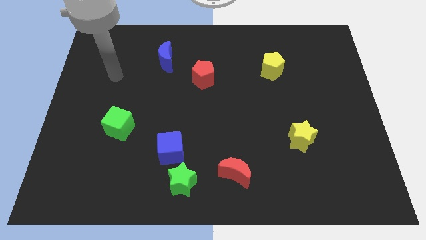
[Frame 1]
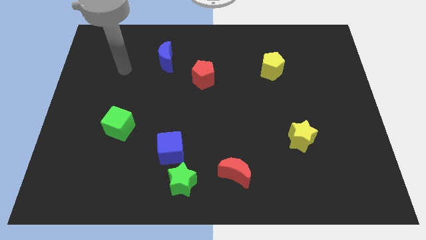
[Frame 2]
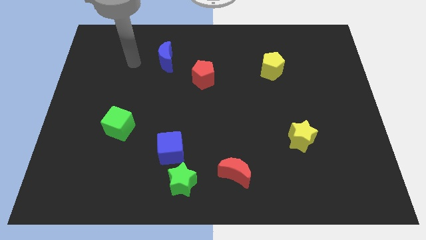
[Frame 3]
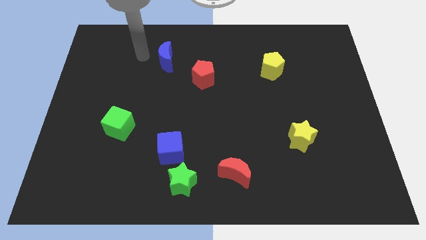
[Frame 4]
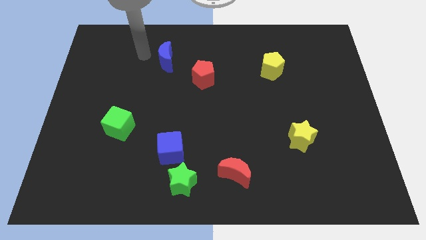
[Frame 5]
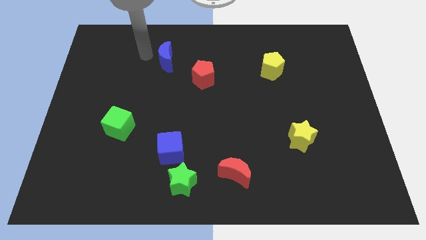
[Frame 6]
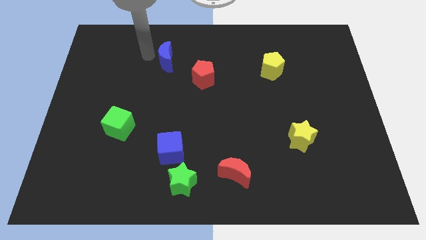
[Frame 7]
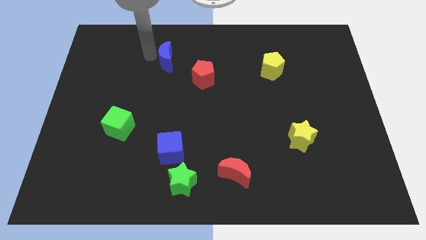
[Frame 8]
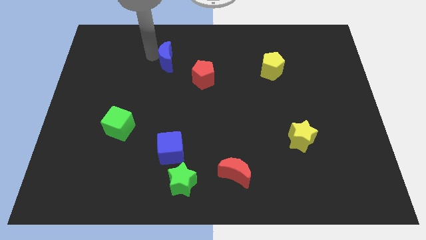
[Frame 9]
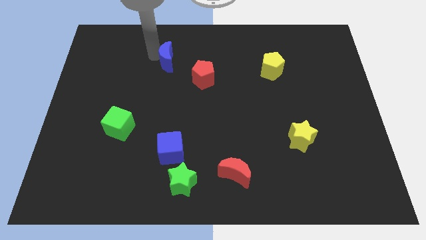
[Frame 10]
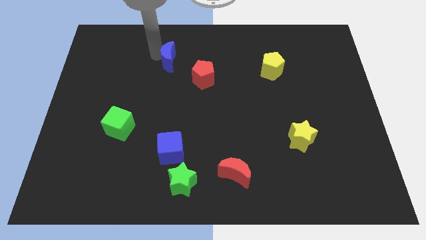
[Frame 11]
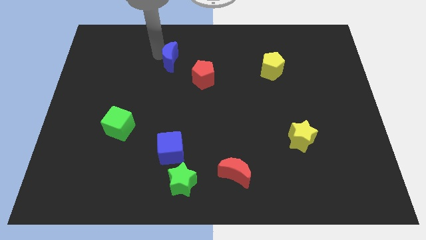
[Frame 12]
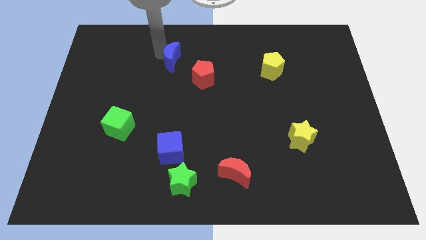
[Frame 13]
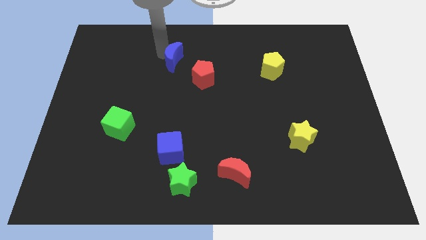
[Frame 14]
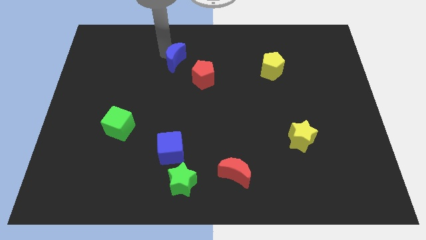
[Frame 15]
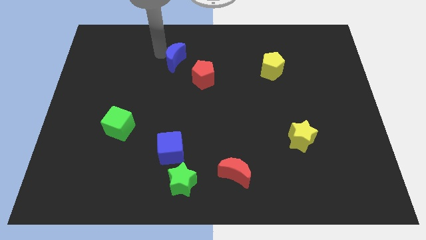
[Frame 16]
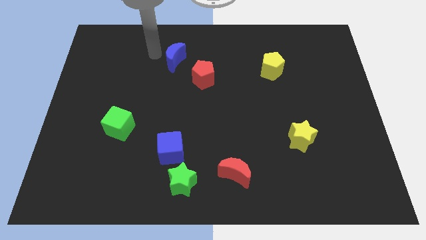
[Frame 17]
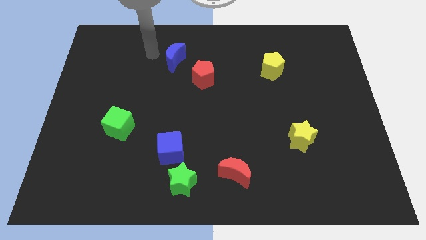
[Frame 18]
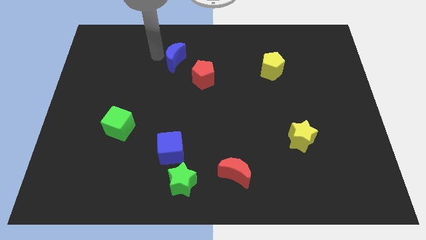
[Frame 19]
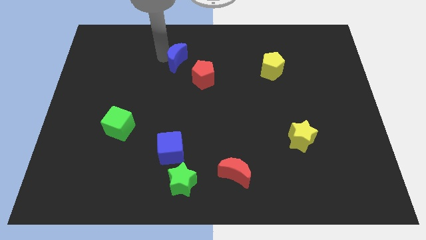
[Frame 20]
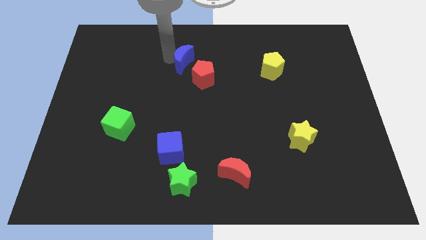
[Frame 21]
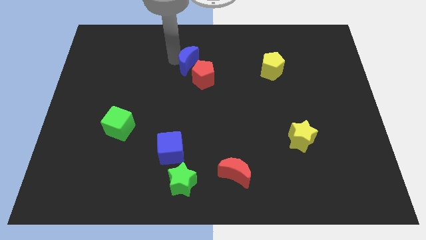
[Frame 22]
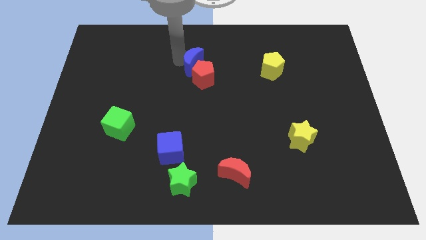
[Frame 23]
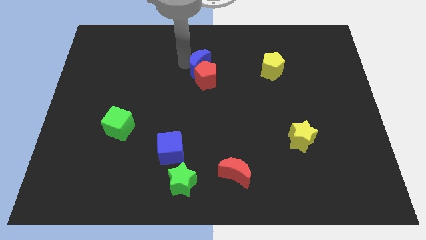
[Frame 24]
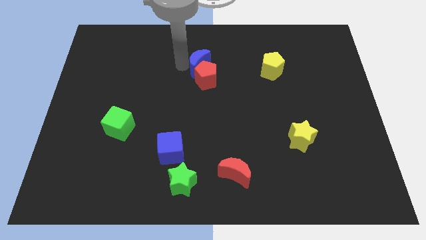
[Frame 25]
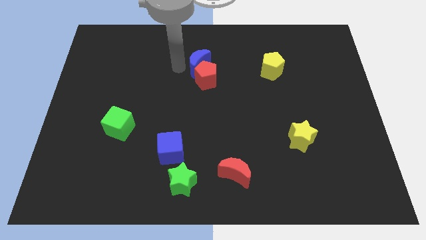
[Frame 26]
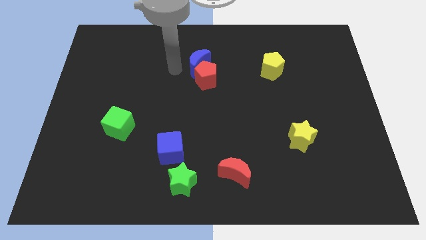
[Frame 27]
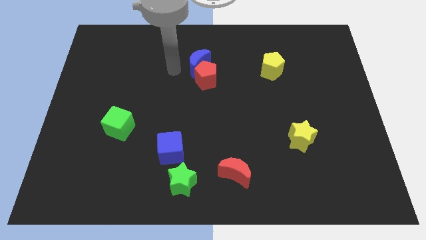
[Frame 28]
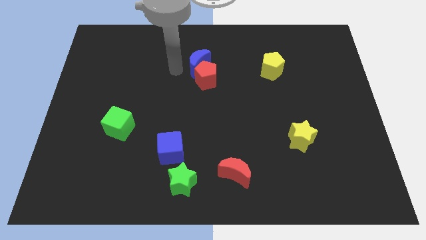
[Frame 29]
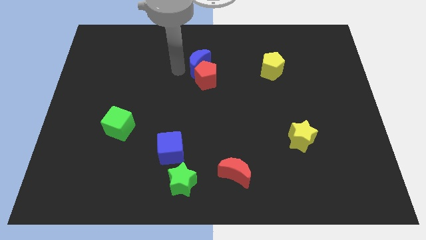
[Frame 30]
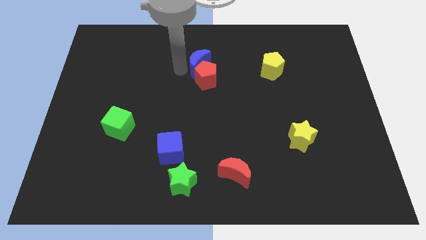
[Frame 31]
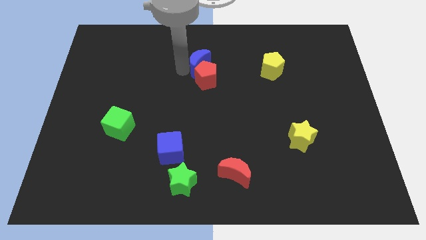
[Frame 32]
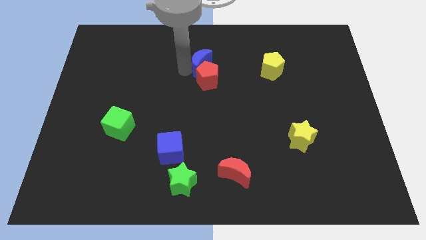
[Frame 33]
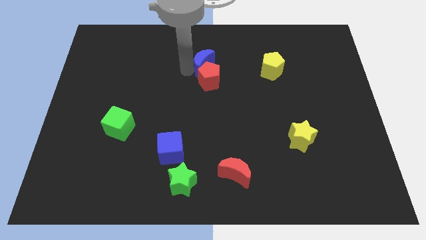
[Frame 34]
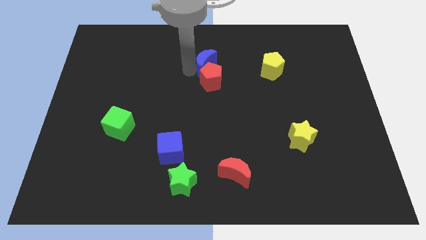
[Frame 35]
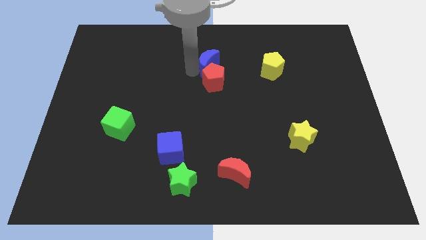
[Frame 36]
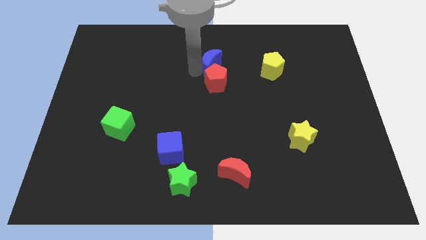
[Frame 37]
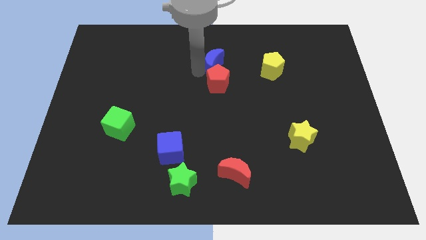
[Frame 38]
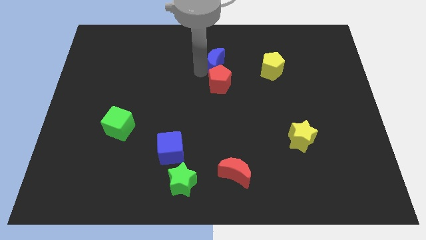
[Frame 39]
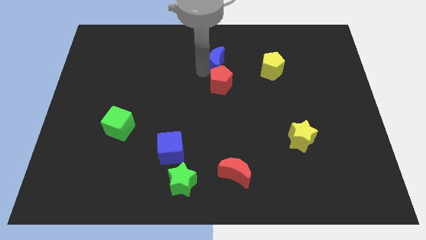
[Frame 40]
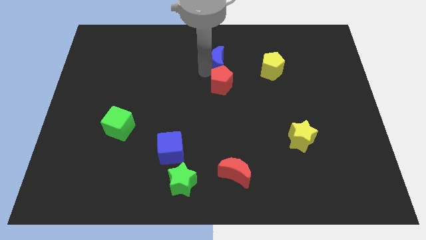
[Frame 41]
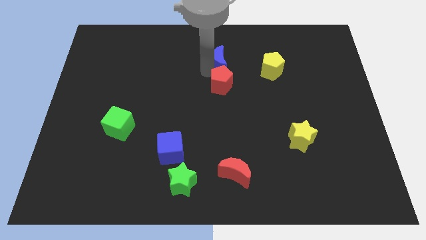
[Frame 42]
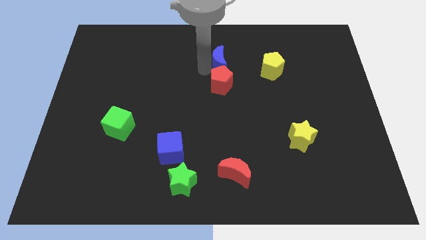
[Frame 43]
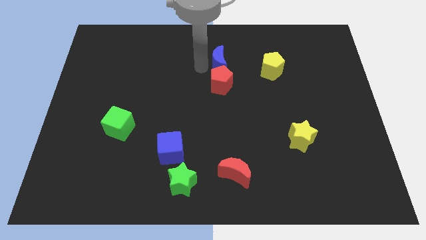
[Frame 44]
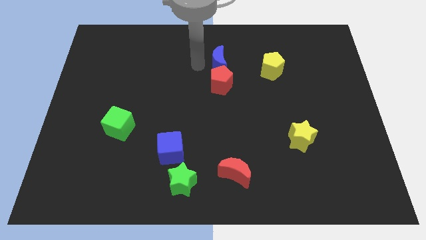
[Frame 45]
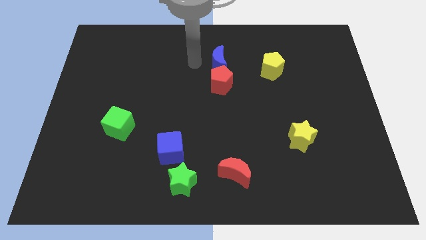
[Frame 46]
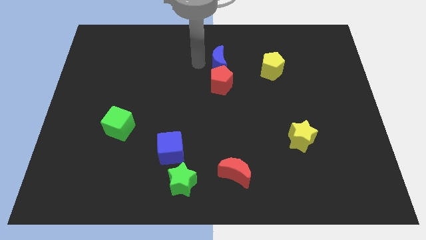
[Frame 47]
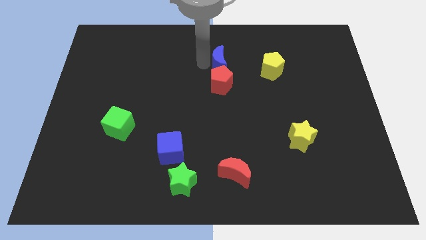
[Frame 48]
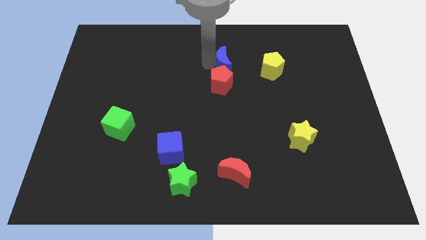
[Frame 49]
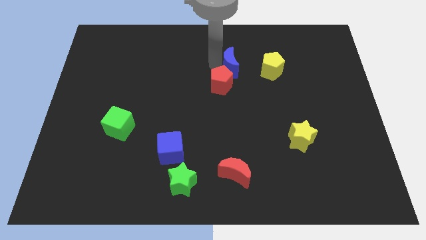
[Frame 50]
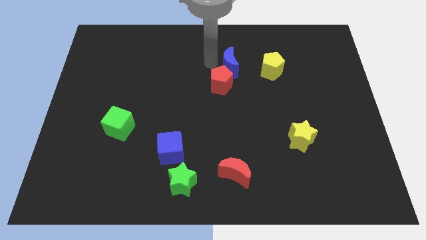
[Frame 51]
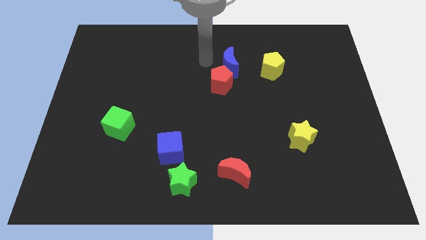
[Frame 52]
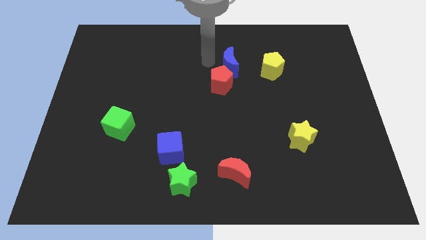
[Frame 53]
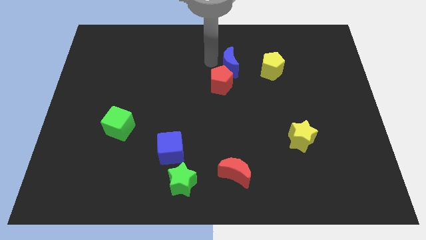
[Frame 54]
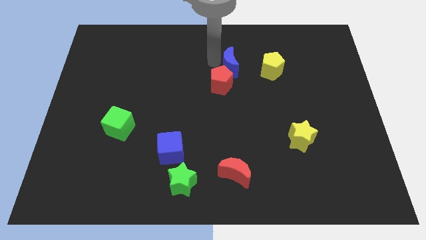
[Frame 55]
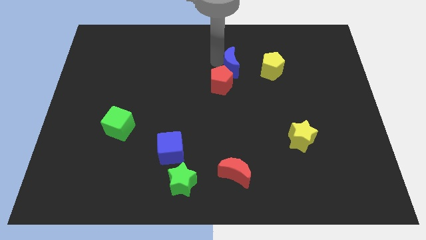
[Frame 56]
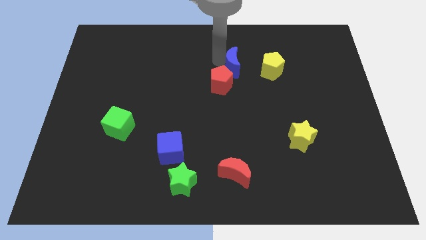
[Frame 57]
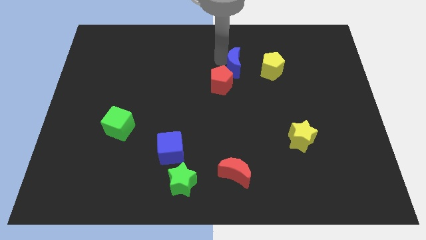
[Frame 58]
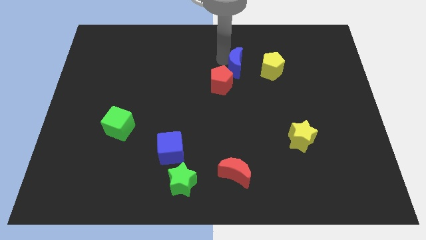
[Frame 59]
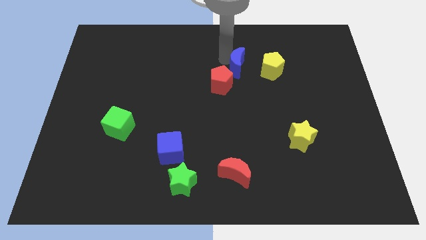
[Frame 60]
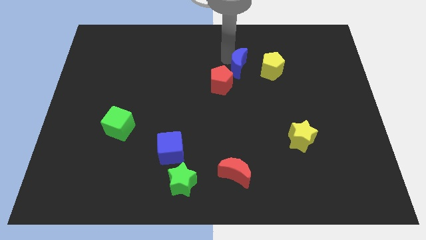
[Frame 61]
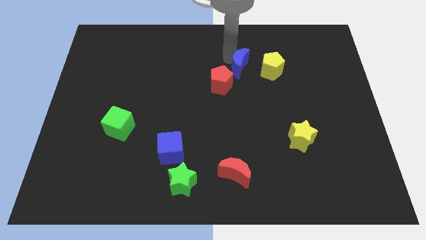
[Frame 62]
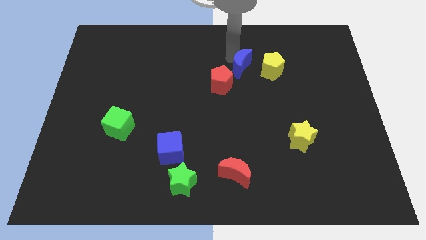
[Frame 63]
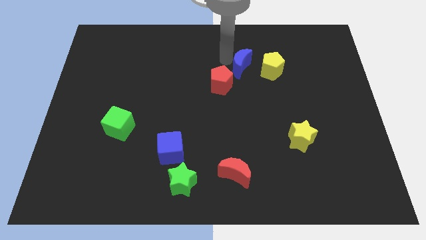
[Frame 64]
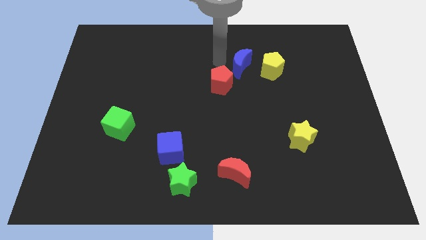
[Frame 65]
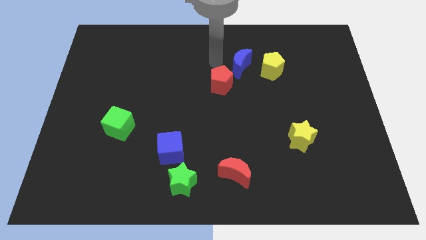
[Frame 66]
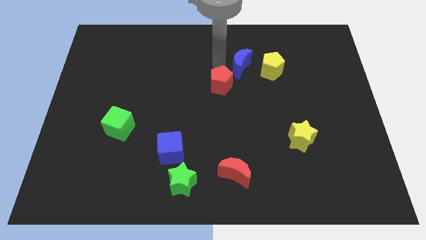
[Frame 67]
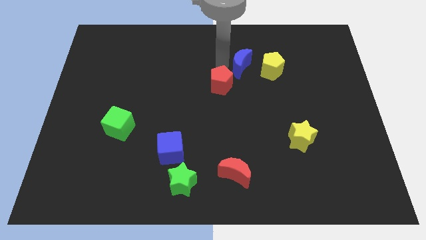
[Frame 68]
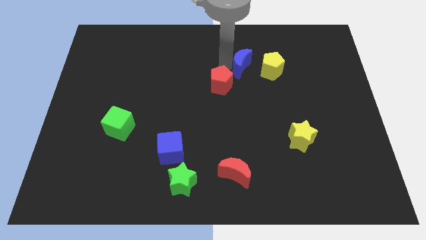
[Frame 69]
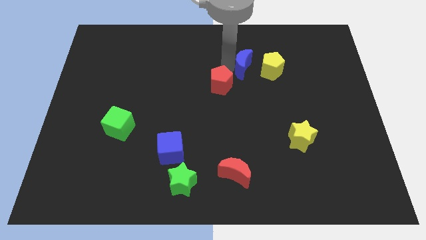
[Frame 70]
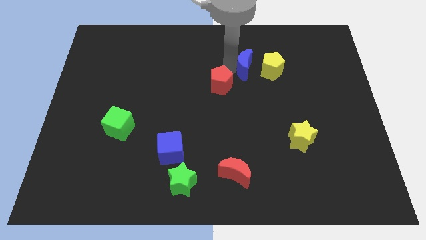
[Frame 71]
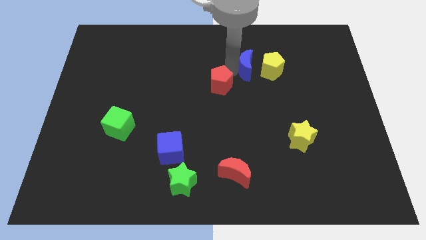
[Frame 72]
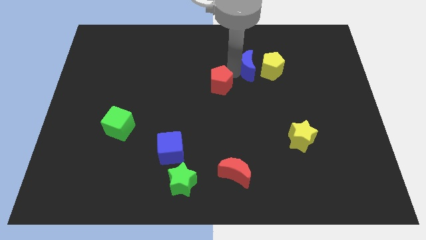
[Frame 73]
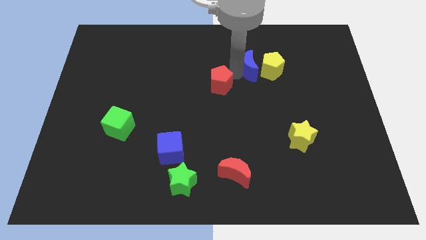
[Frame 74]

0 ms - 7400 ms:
slide the blue moon close to the yellow pentagon
